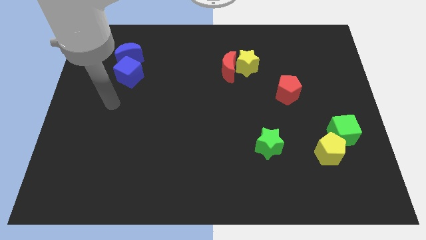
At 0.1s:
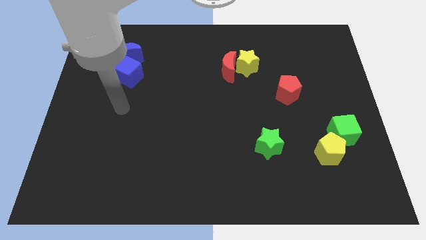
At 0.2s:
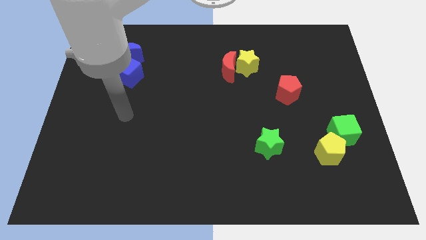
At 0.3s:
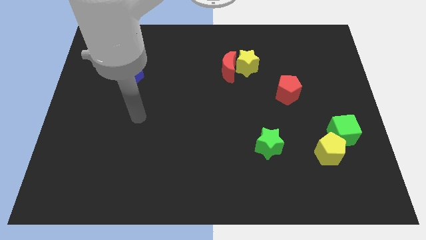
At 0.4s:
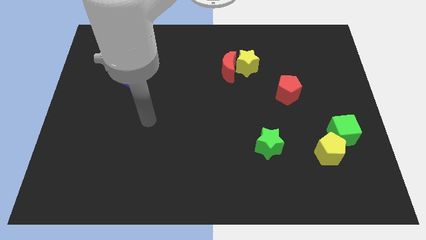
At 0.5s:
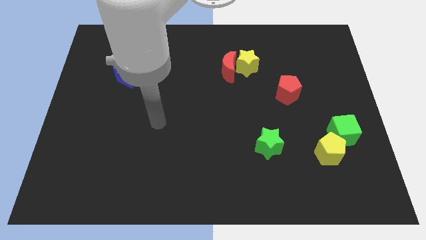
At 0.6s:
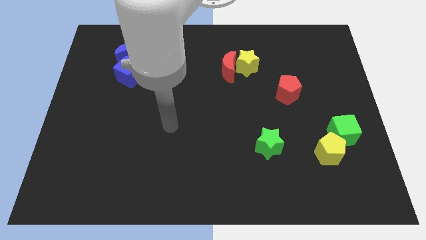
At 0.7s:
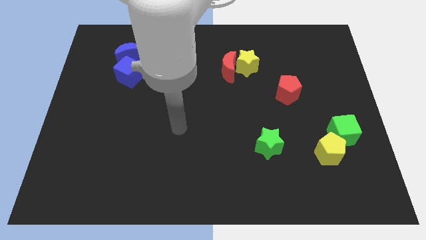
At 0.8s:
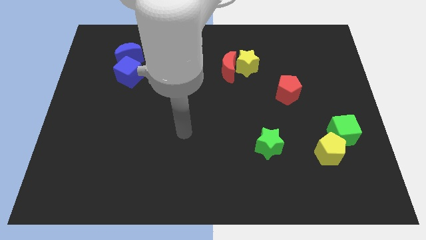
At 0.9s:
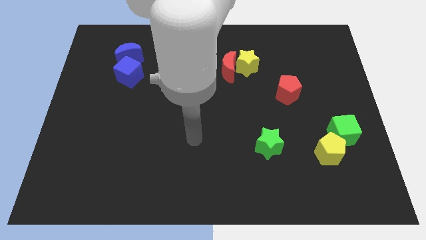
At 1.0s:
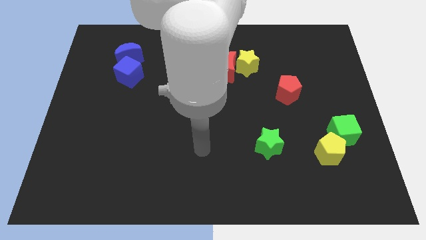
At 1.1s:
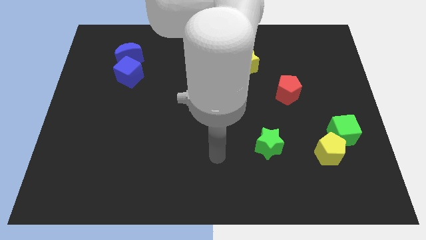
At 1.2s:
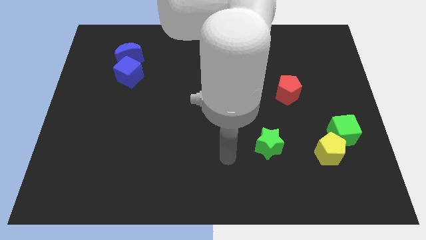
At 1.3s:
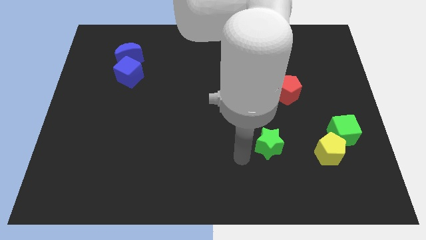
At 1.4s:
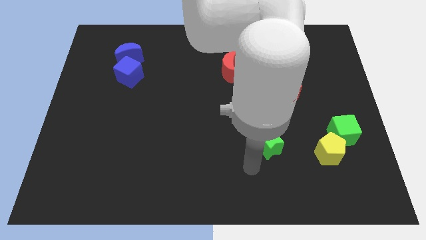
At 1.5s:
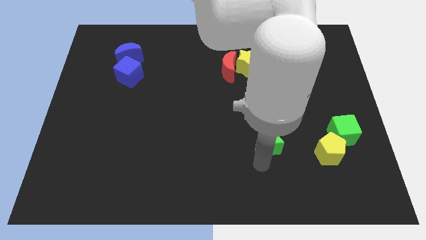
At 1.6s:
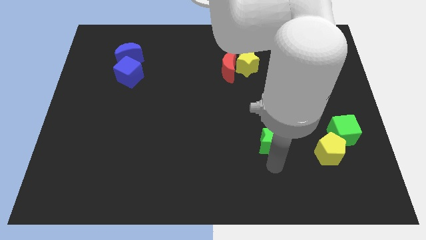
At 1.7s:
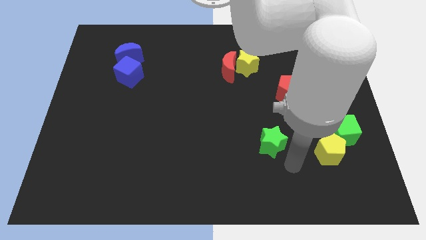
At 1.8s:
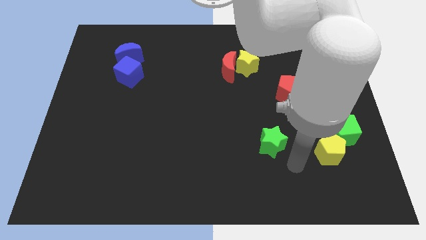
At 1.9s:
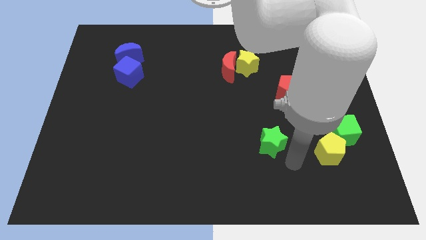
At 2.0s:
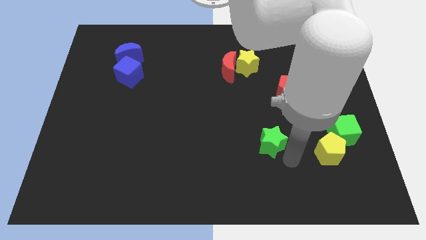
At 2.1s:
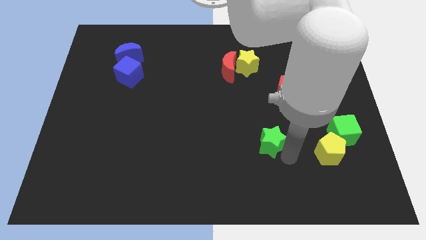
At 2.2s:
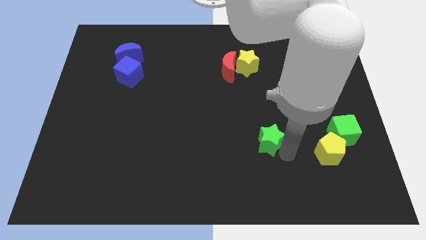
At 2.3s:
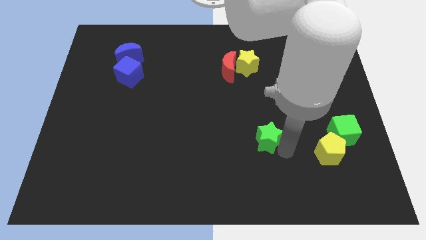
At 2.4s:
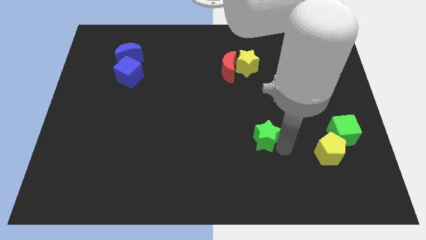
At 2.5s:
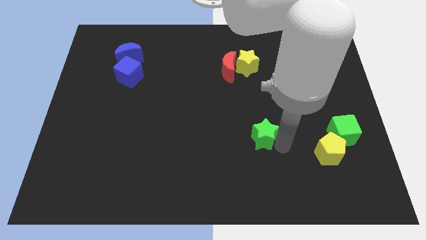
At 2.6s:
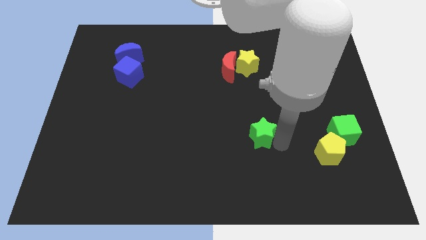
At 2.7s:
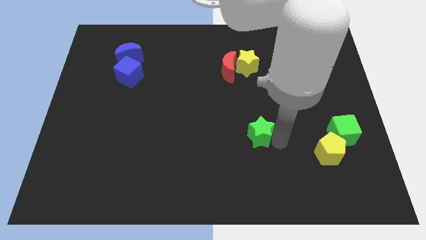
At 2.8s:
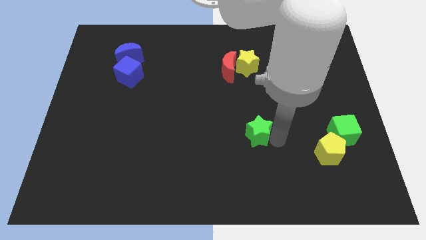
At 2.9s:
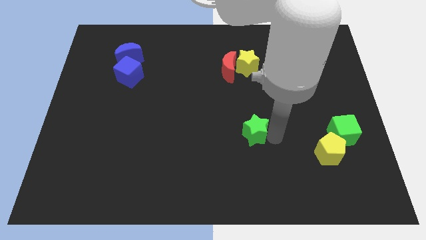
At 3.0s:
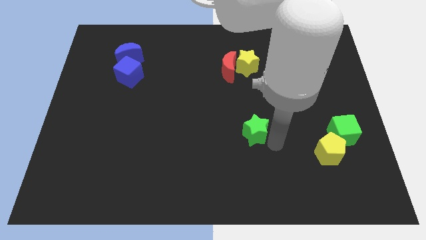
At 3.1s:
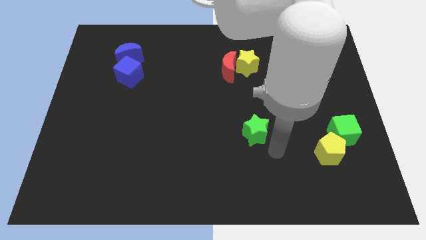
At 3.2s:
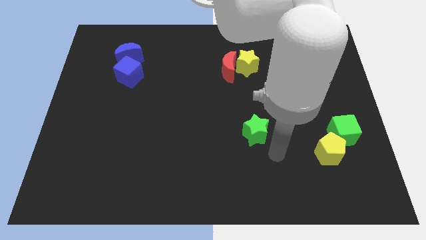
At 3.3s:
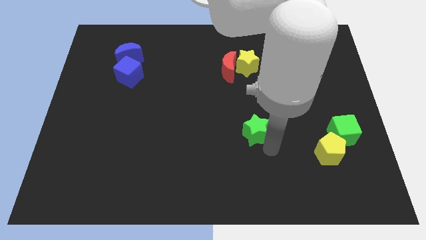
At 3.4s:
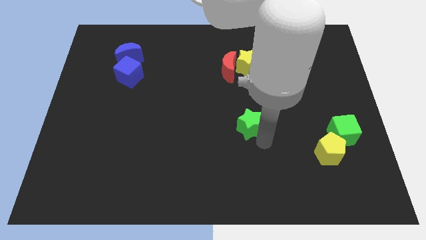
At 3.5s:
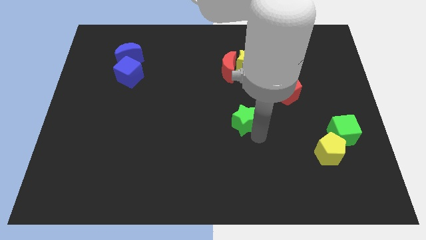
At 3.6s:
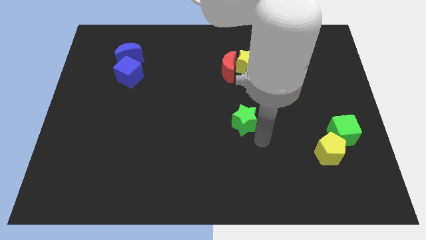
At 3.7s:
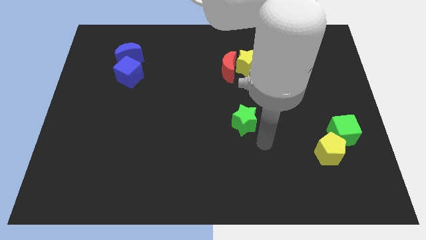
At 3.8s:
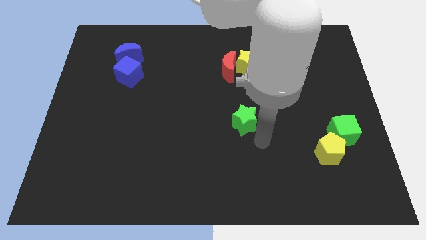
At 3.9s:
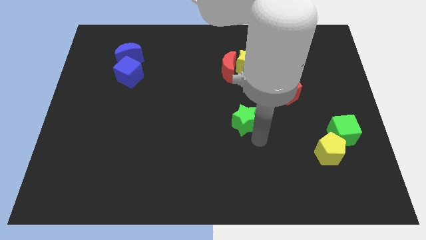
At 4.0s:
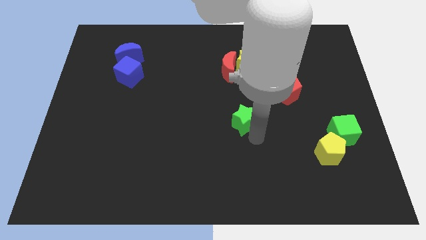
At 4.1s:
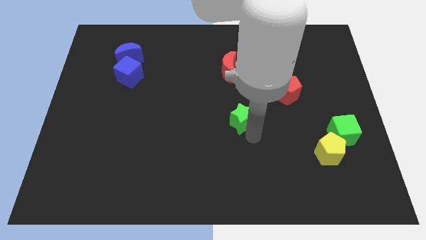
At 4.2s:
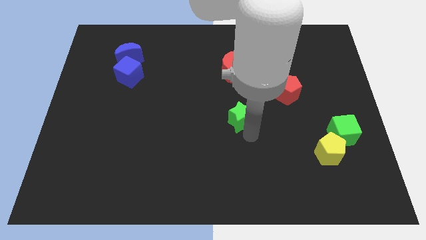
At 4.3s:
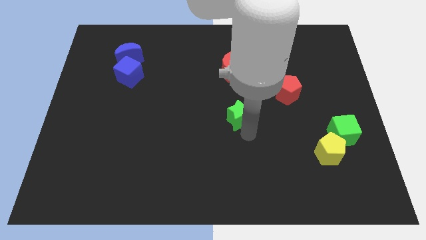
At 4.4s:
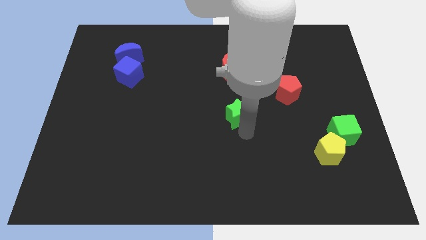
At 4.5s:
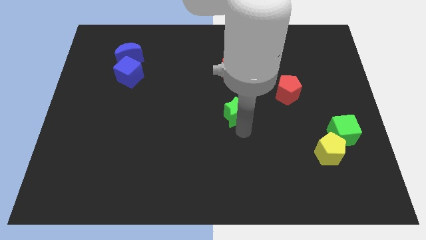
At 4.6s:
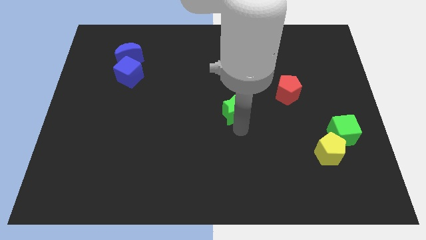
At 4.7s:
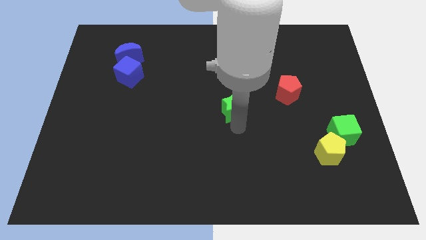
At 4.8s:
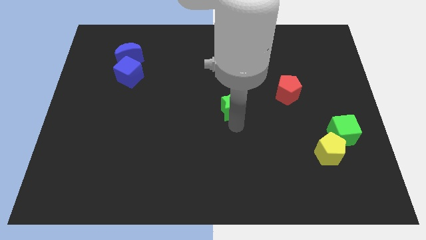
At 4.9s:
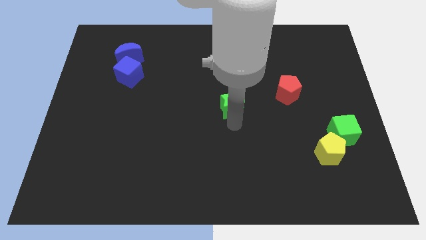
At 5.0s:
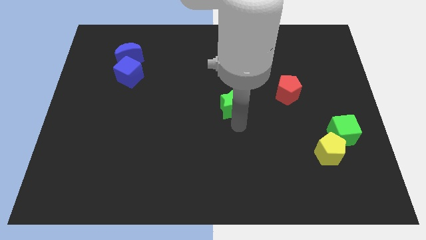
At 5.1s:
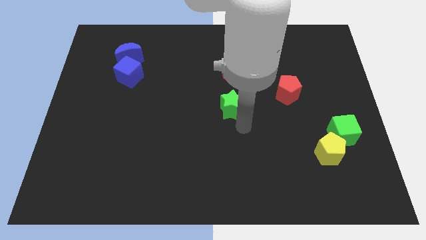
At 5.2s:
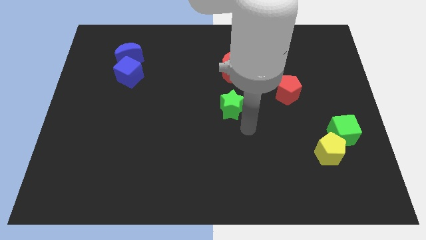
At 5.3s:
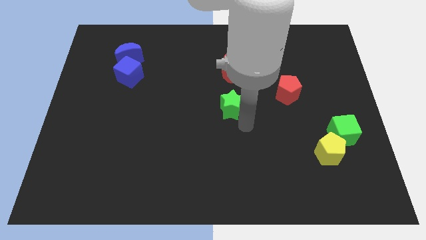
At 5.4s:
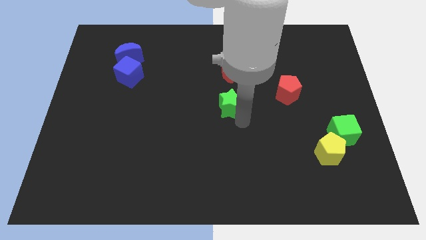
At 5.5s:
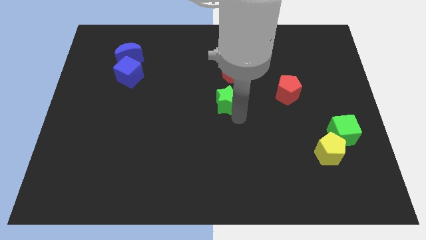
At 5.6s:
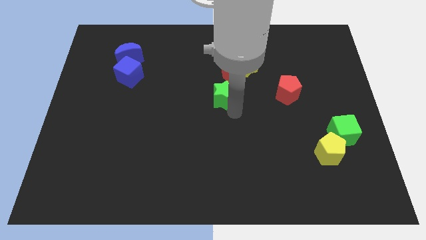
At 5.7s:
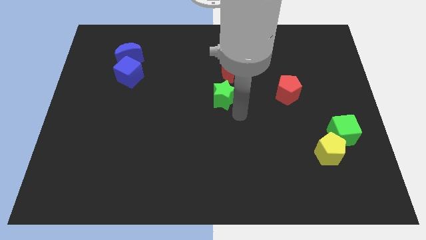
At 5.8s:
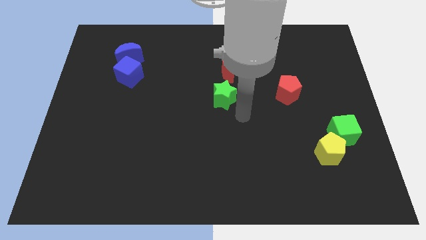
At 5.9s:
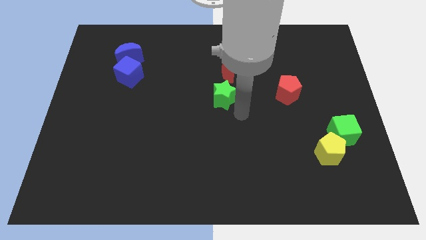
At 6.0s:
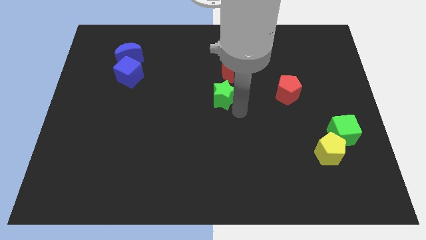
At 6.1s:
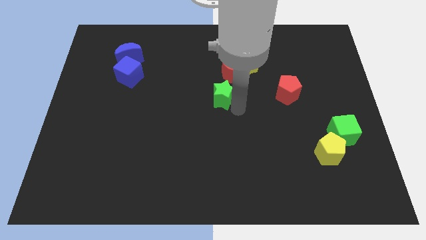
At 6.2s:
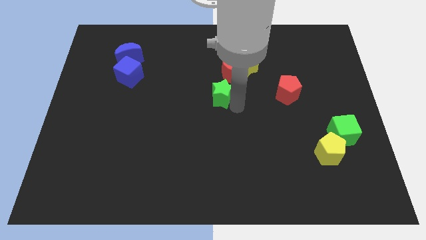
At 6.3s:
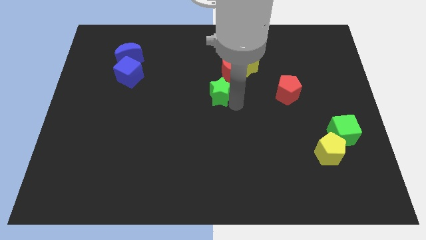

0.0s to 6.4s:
put the green star to the bottom left of the red moon

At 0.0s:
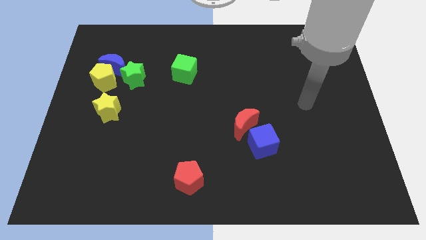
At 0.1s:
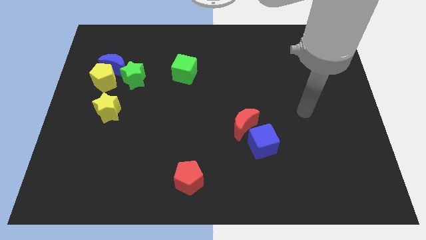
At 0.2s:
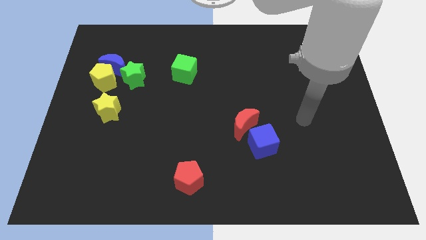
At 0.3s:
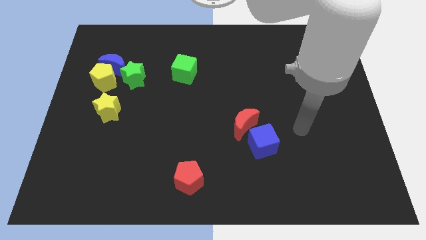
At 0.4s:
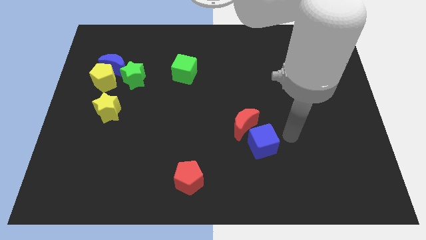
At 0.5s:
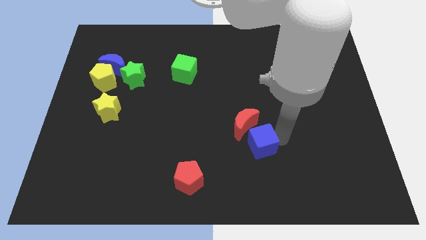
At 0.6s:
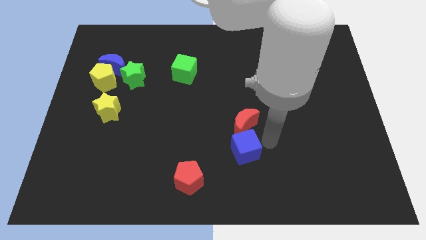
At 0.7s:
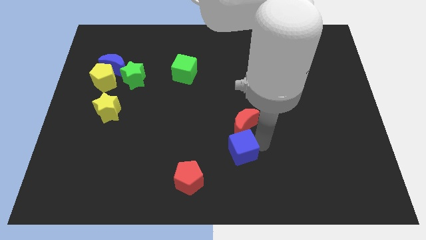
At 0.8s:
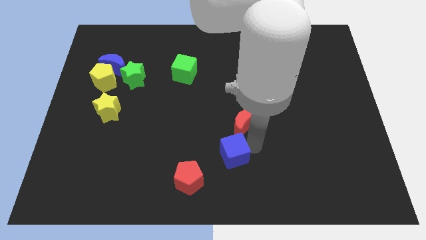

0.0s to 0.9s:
slide the blue cube diagonally up and to the right of the red pentagon
